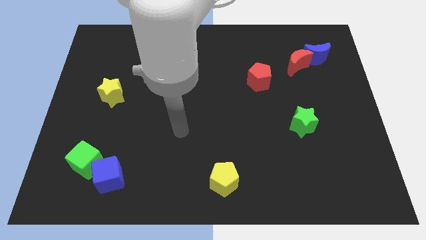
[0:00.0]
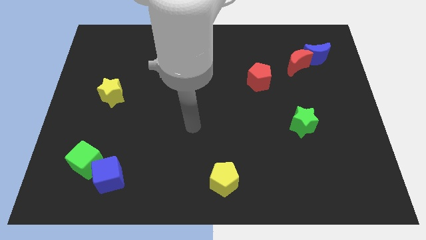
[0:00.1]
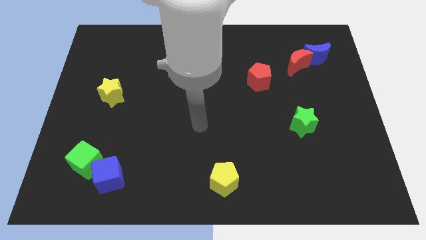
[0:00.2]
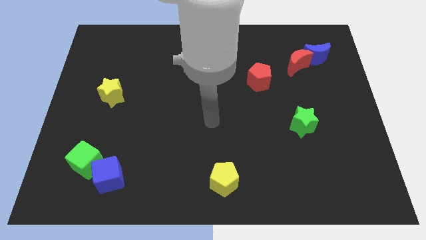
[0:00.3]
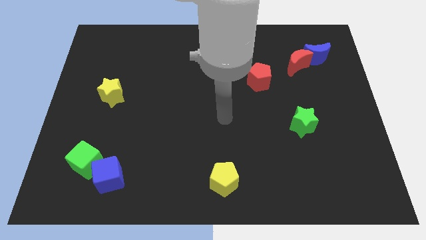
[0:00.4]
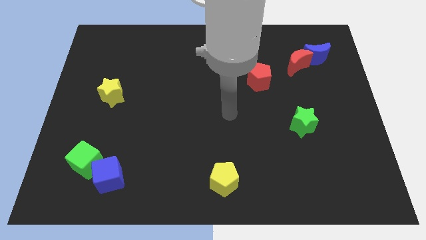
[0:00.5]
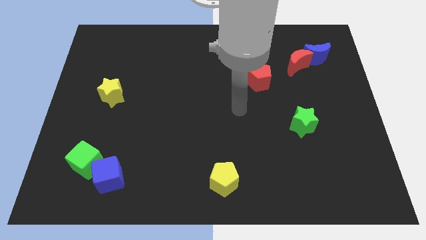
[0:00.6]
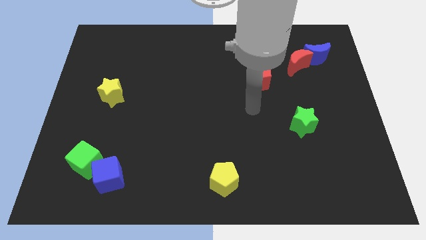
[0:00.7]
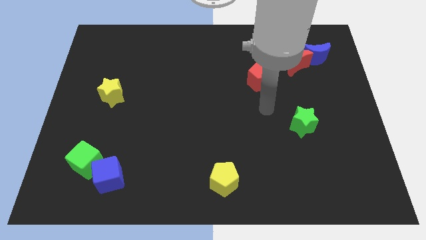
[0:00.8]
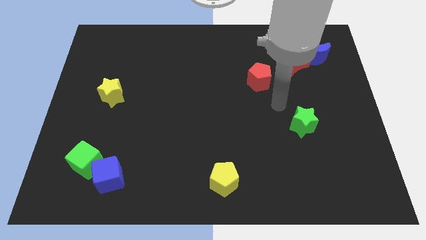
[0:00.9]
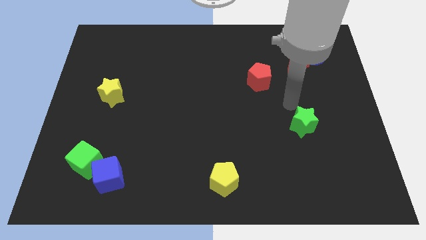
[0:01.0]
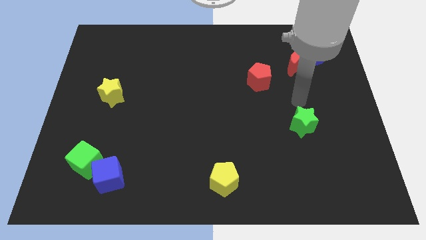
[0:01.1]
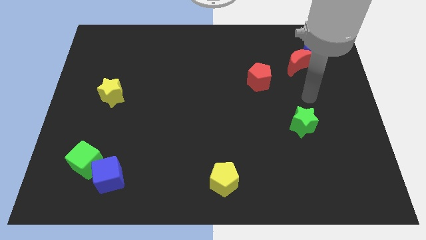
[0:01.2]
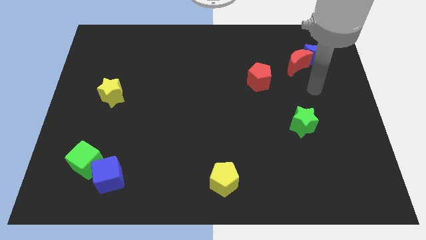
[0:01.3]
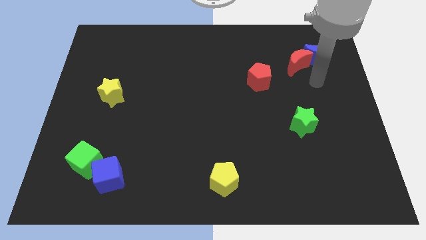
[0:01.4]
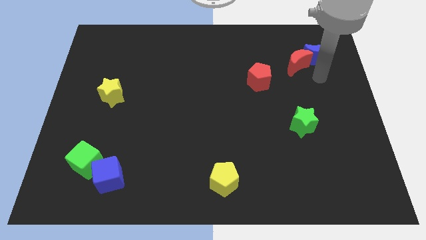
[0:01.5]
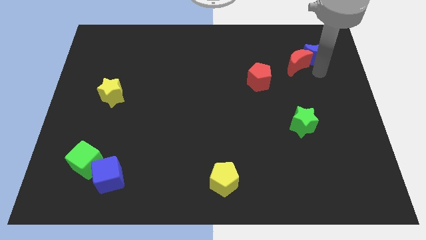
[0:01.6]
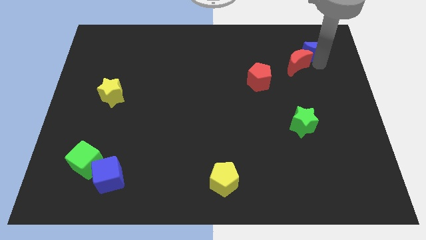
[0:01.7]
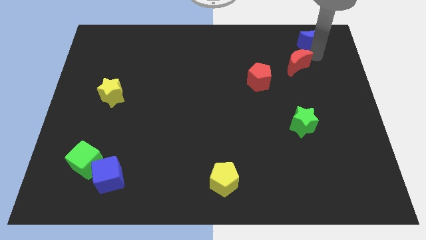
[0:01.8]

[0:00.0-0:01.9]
separate the red moon from the blue moon

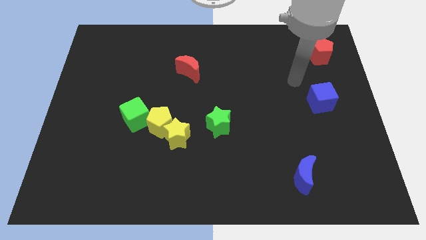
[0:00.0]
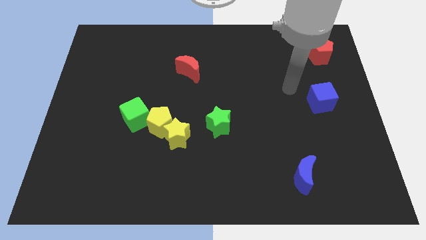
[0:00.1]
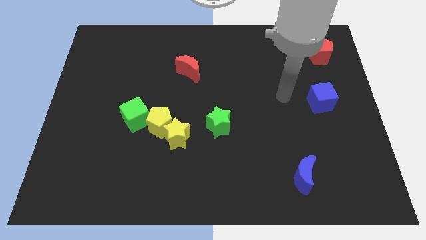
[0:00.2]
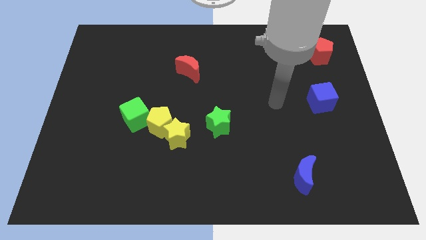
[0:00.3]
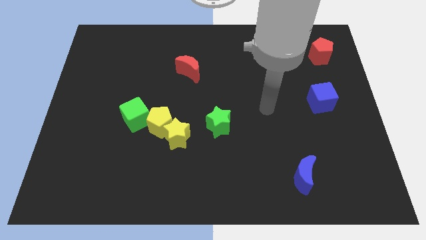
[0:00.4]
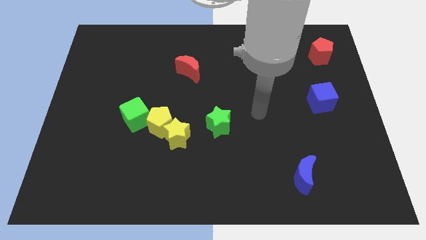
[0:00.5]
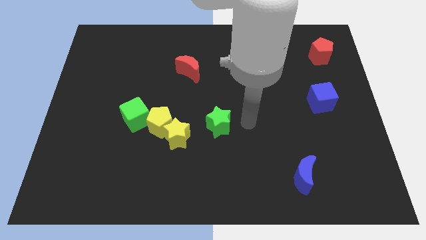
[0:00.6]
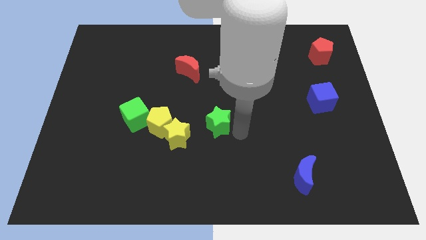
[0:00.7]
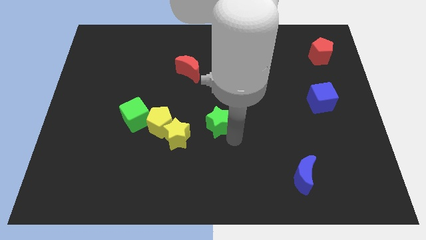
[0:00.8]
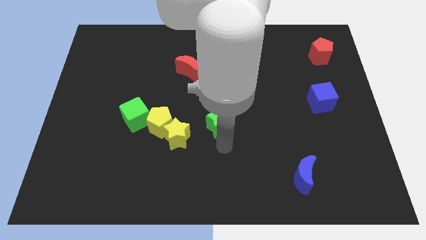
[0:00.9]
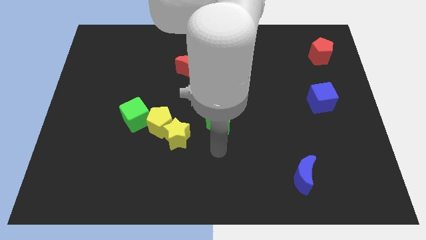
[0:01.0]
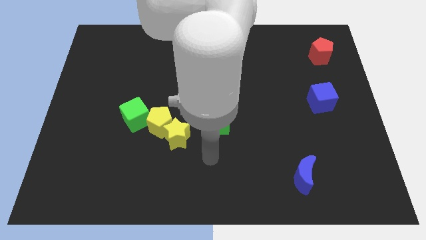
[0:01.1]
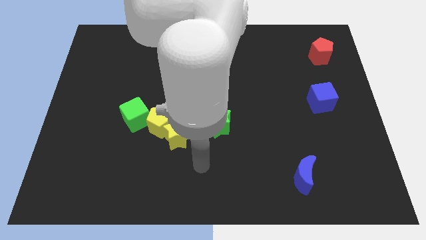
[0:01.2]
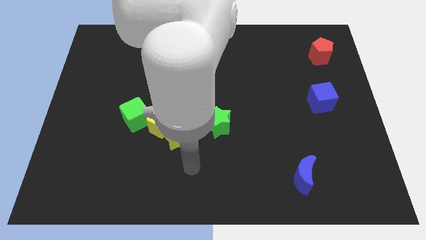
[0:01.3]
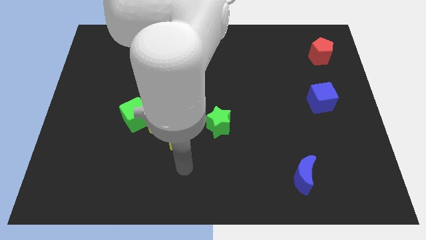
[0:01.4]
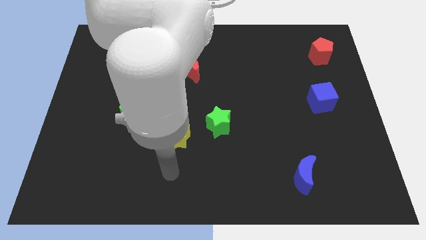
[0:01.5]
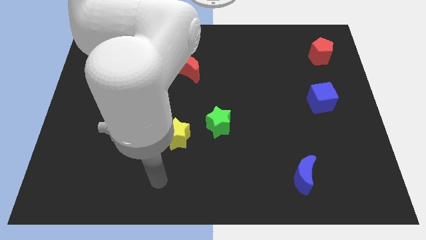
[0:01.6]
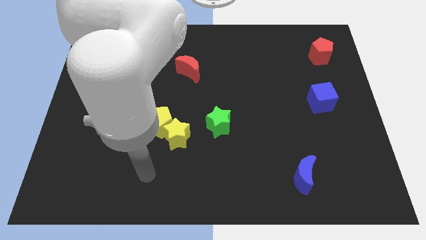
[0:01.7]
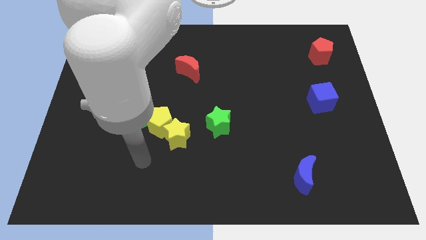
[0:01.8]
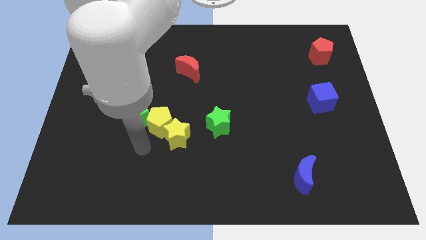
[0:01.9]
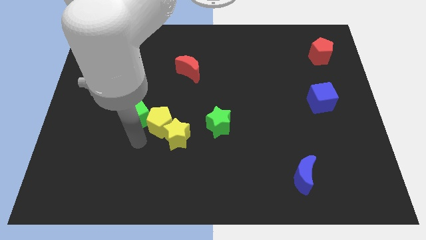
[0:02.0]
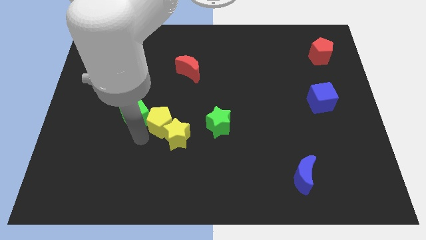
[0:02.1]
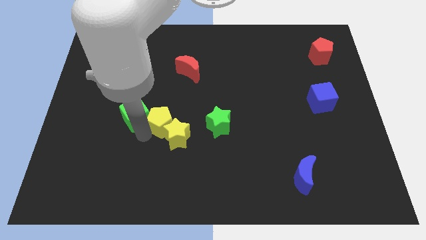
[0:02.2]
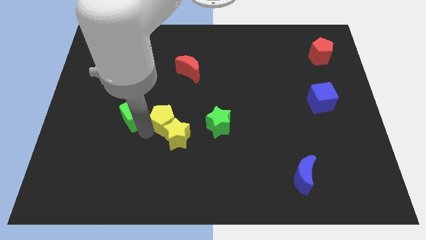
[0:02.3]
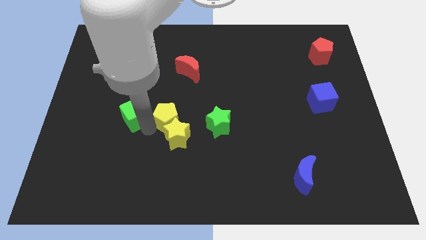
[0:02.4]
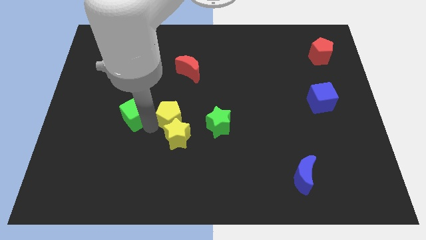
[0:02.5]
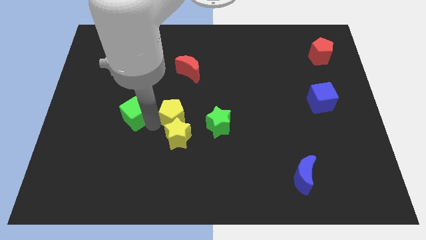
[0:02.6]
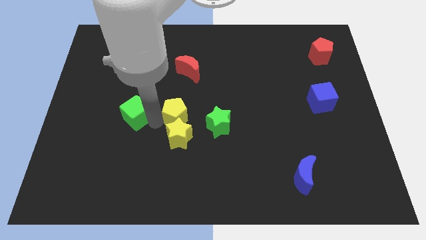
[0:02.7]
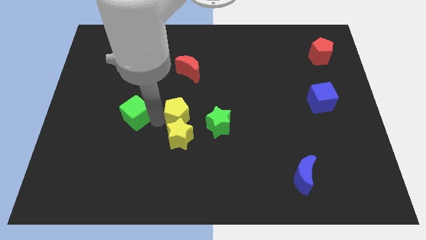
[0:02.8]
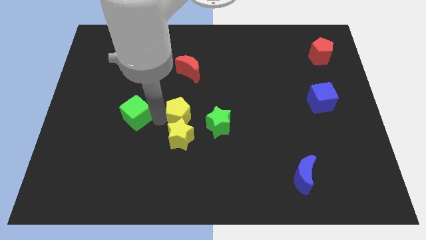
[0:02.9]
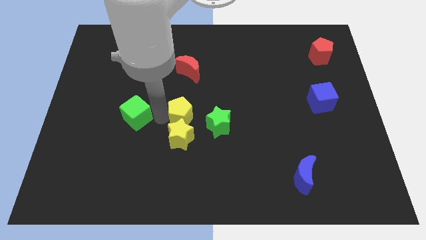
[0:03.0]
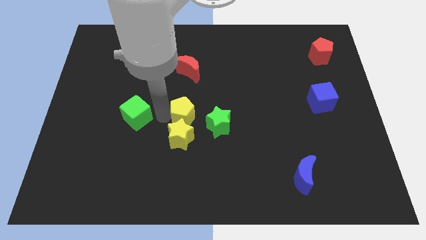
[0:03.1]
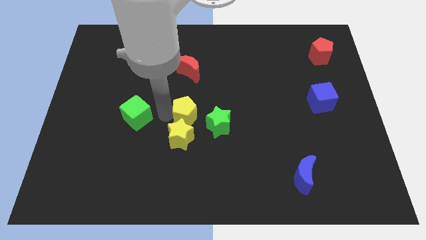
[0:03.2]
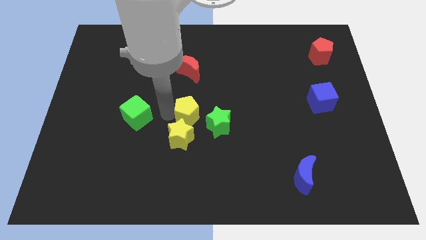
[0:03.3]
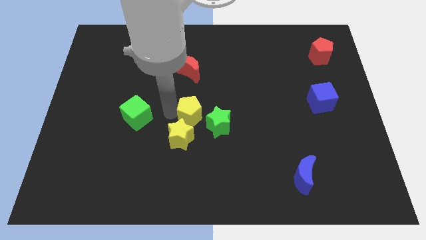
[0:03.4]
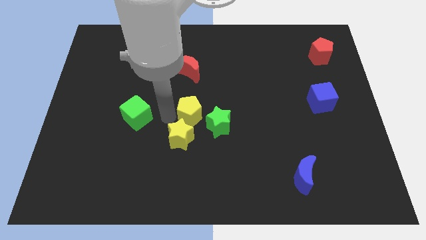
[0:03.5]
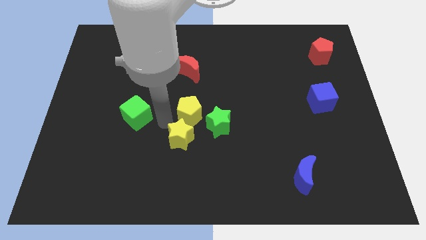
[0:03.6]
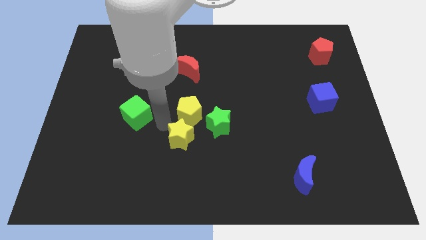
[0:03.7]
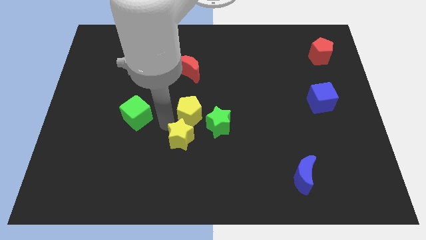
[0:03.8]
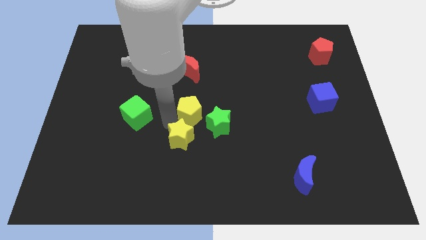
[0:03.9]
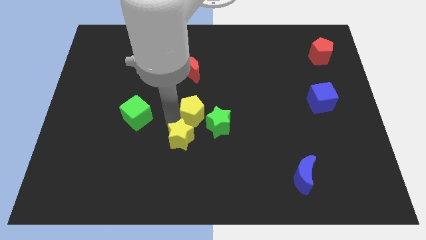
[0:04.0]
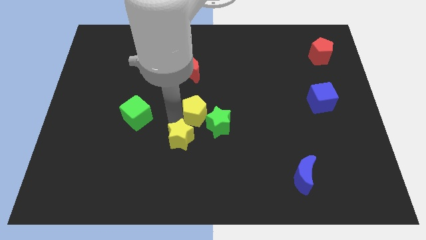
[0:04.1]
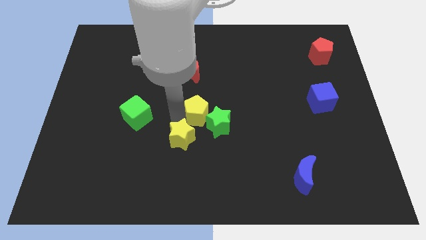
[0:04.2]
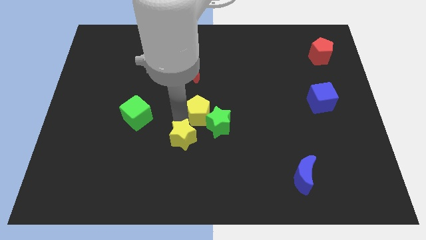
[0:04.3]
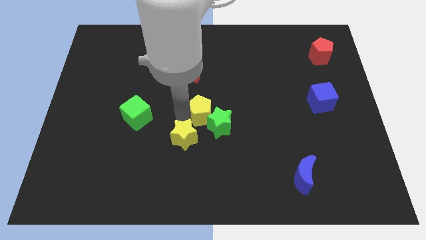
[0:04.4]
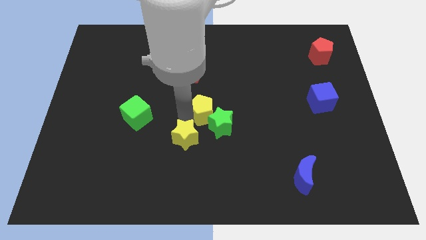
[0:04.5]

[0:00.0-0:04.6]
separate the yellow pentagon from the yellow star and green cube

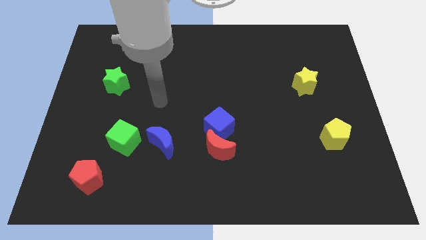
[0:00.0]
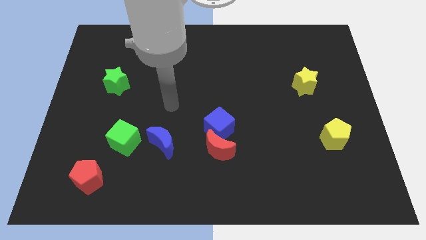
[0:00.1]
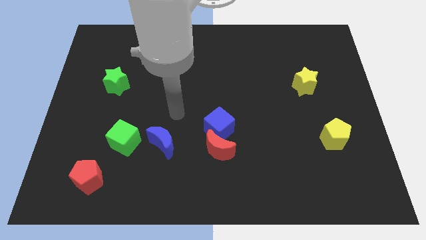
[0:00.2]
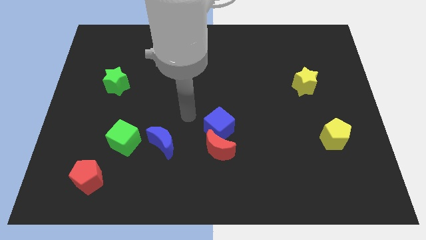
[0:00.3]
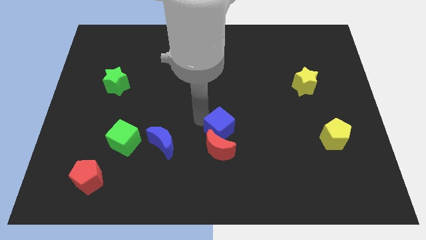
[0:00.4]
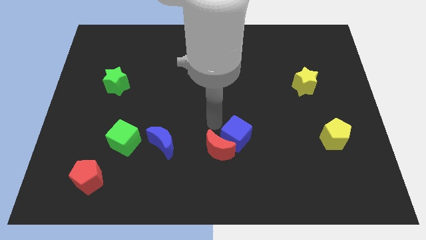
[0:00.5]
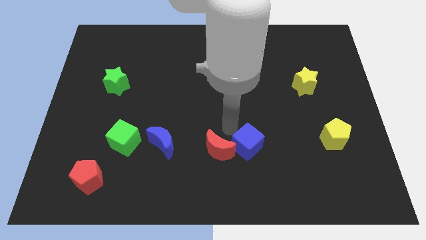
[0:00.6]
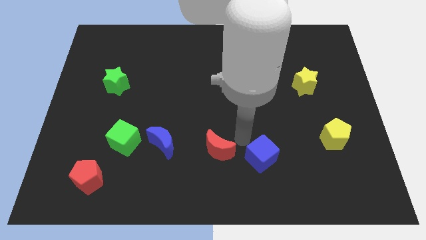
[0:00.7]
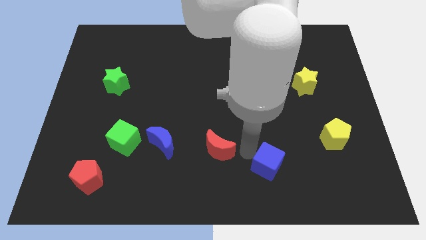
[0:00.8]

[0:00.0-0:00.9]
separate the red moon from the blue cube

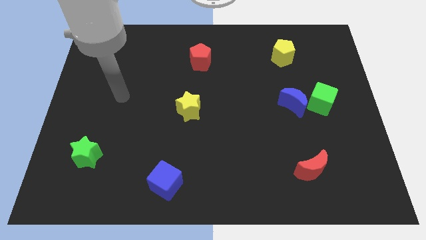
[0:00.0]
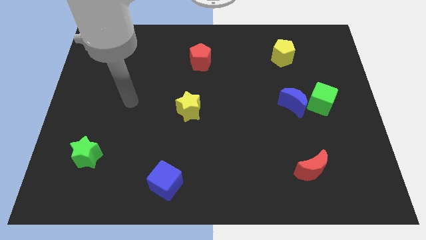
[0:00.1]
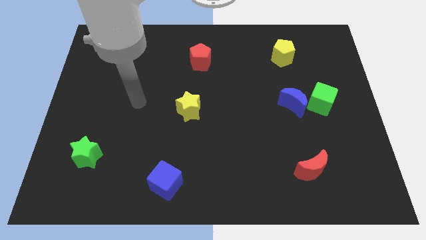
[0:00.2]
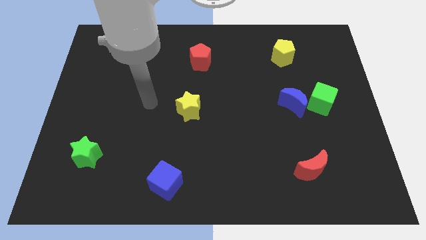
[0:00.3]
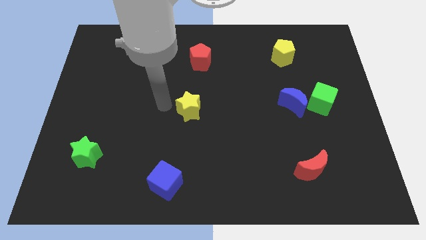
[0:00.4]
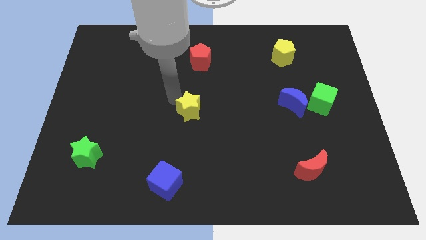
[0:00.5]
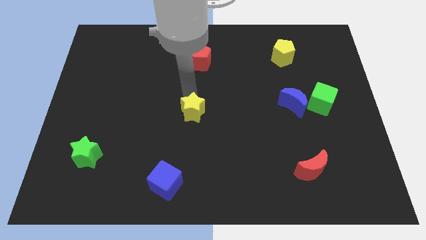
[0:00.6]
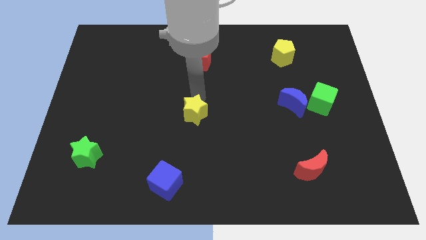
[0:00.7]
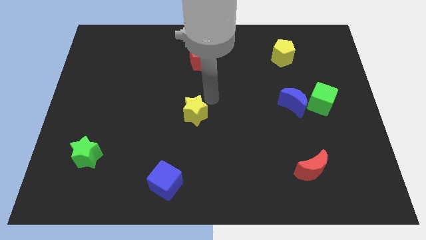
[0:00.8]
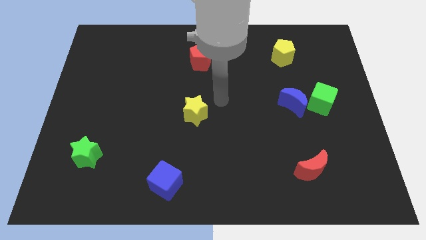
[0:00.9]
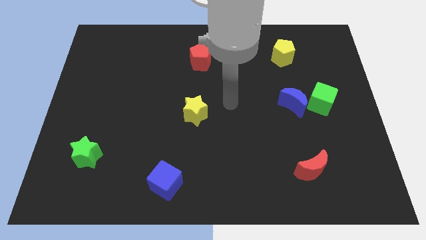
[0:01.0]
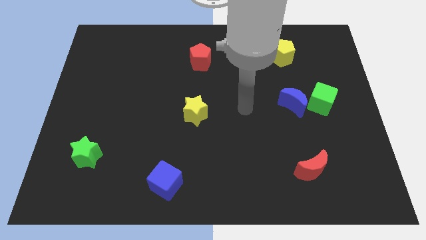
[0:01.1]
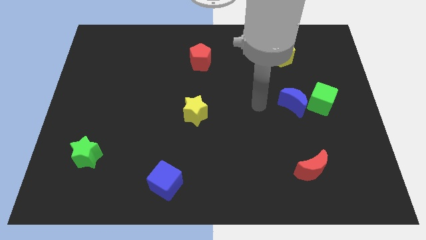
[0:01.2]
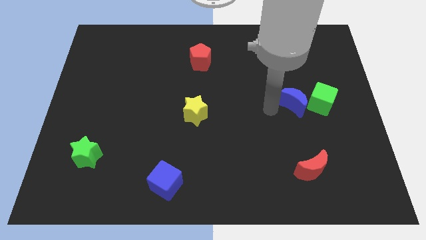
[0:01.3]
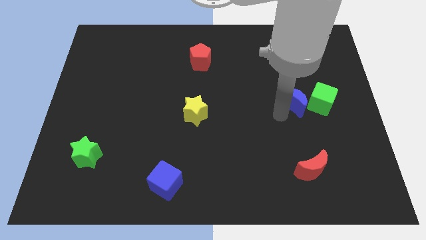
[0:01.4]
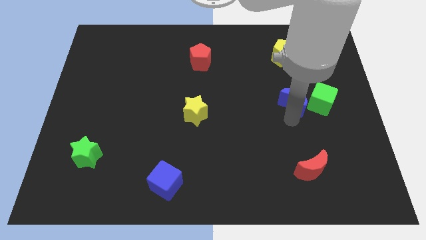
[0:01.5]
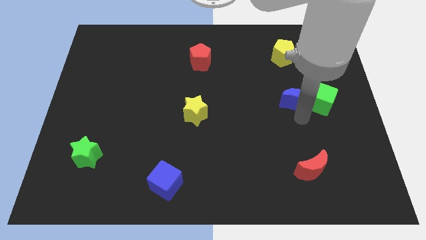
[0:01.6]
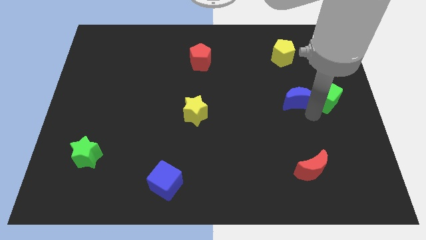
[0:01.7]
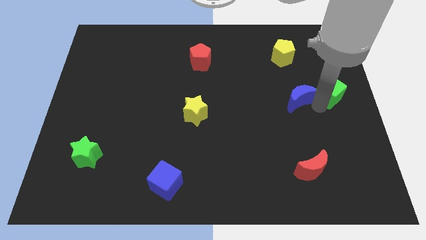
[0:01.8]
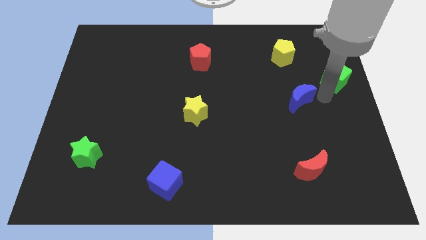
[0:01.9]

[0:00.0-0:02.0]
move the blue moon away from the green cube
